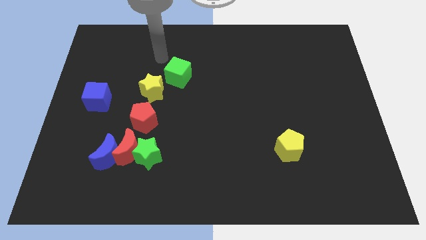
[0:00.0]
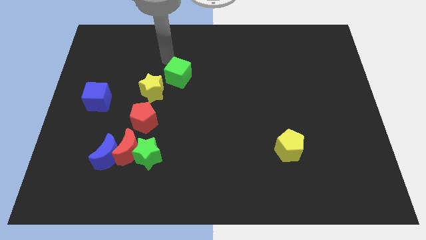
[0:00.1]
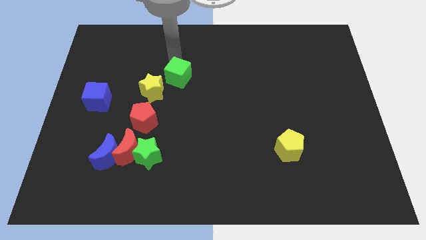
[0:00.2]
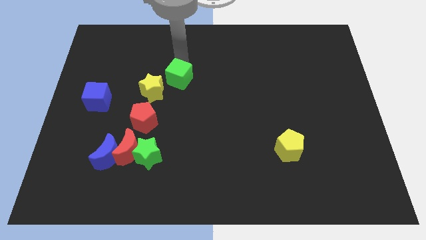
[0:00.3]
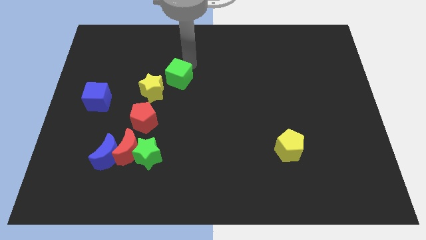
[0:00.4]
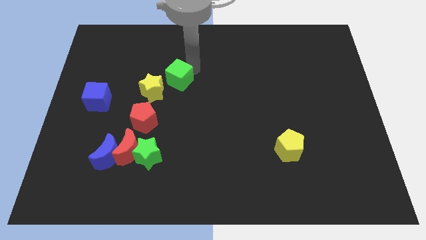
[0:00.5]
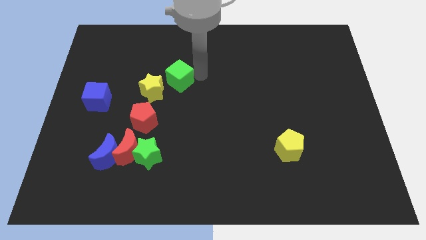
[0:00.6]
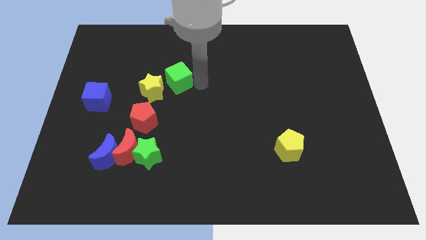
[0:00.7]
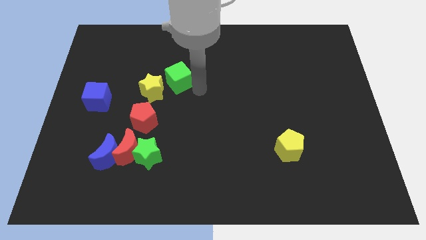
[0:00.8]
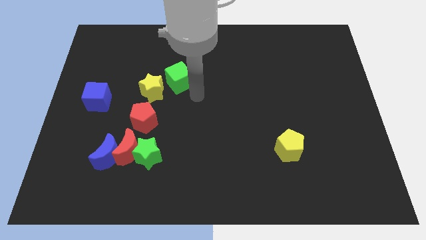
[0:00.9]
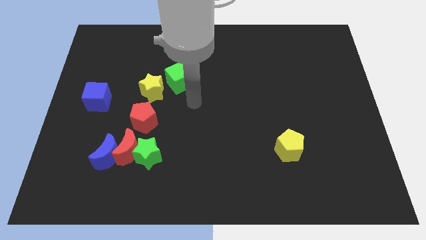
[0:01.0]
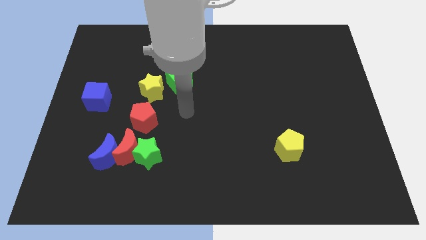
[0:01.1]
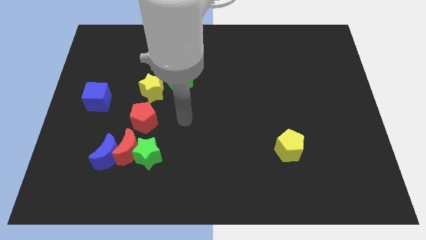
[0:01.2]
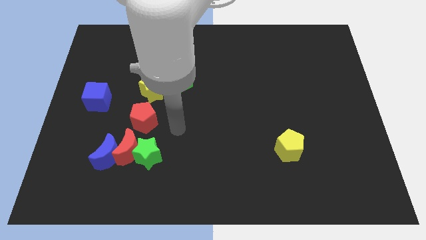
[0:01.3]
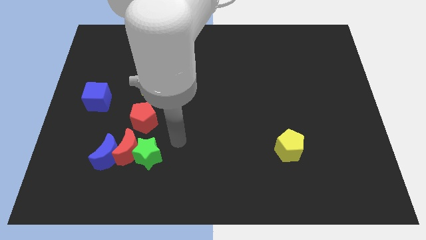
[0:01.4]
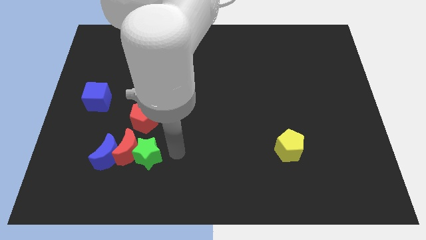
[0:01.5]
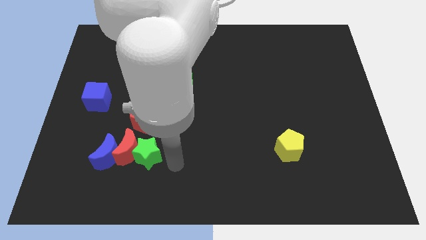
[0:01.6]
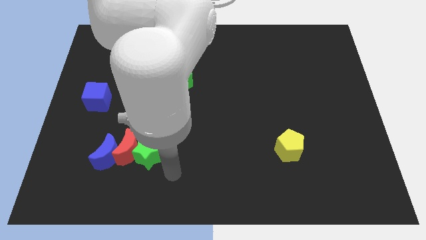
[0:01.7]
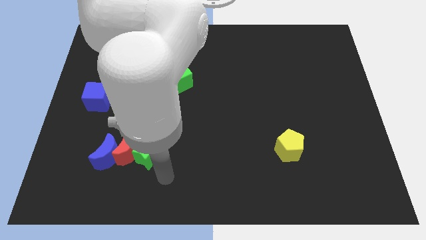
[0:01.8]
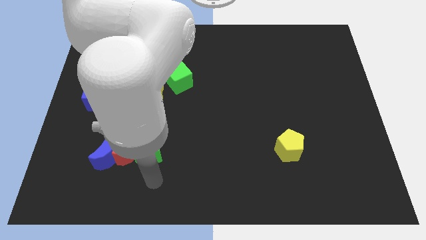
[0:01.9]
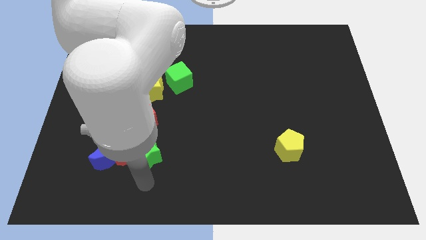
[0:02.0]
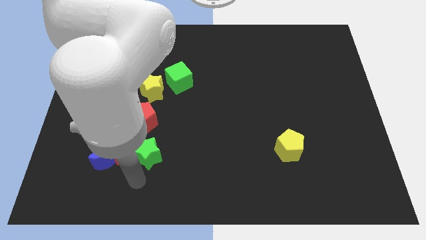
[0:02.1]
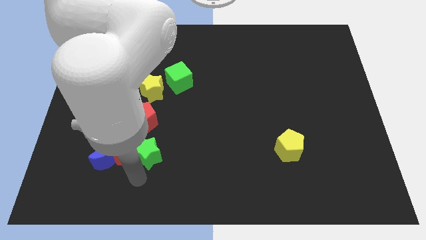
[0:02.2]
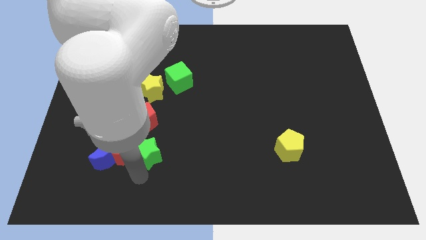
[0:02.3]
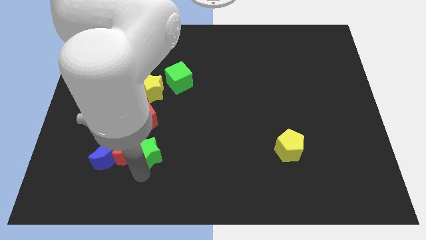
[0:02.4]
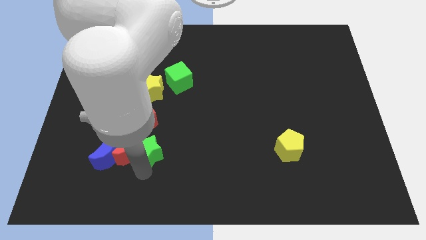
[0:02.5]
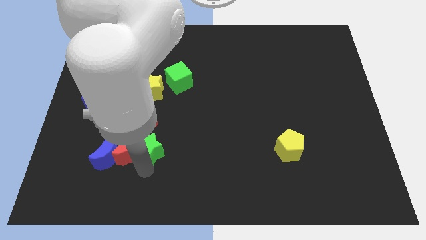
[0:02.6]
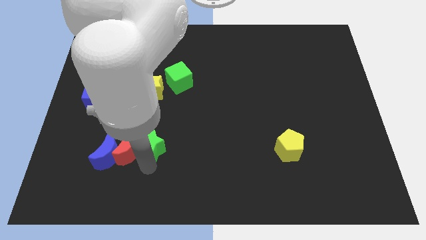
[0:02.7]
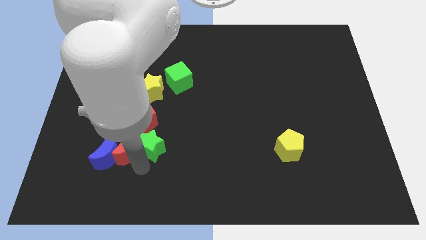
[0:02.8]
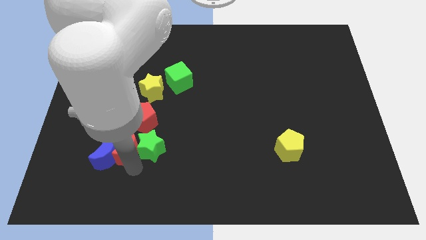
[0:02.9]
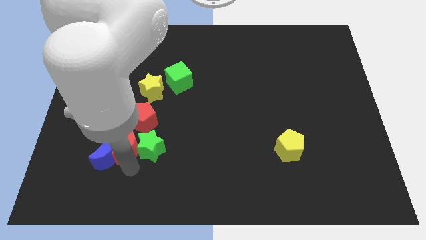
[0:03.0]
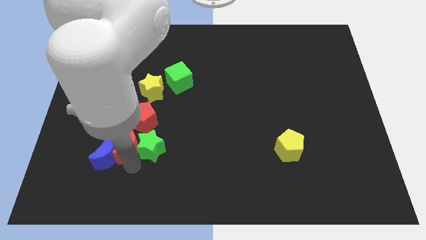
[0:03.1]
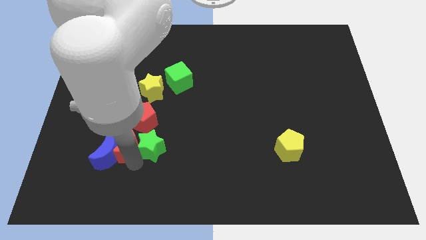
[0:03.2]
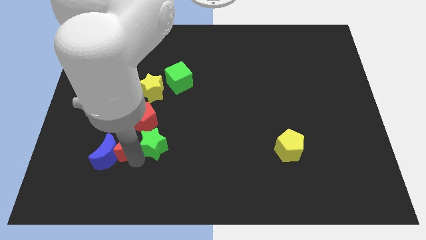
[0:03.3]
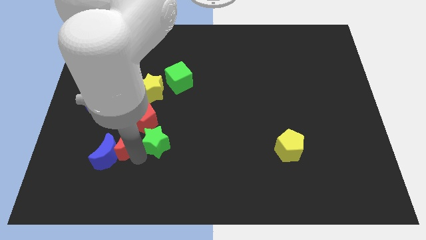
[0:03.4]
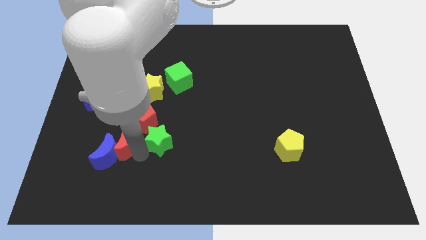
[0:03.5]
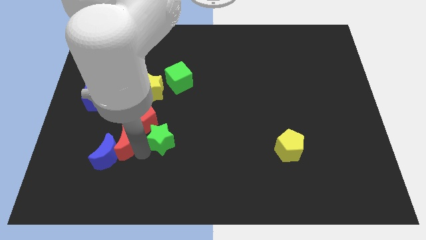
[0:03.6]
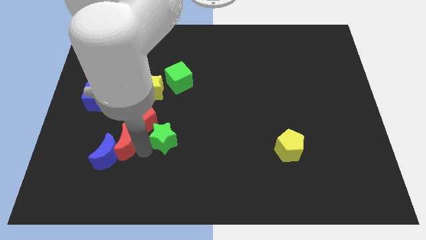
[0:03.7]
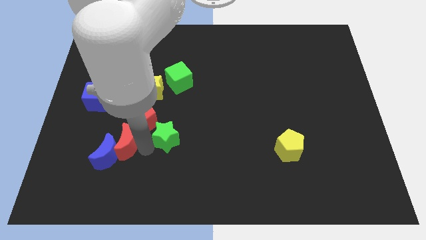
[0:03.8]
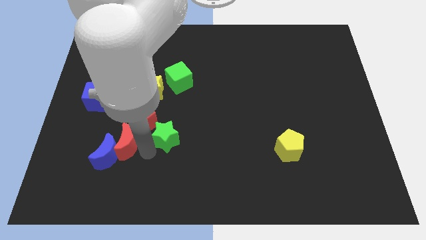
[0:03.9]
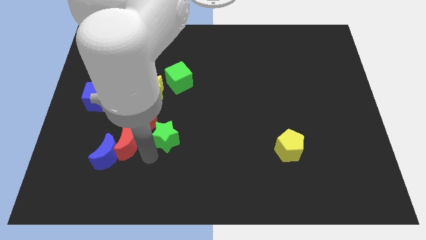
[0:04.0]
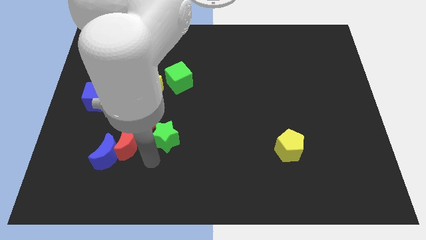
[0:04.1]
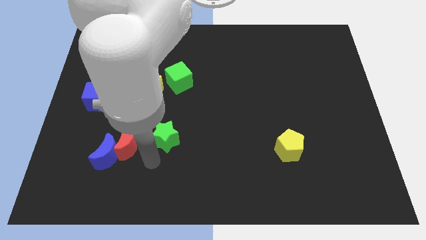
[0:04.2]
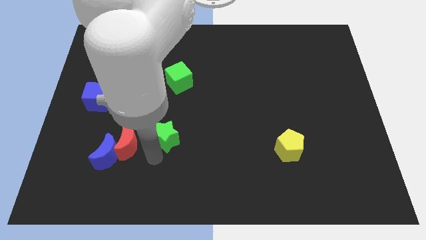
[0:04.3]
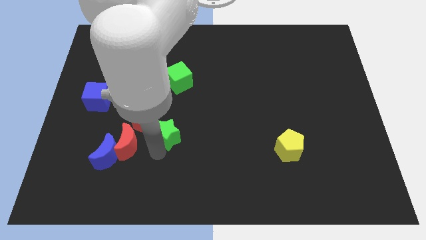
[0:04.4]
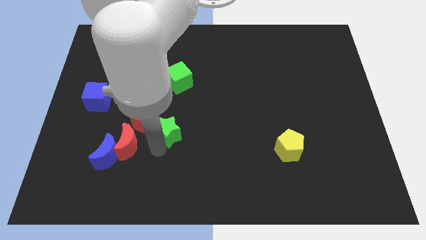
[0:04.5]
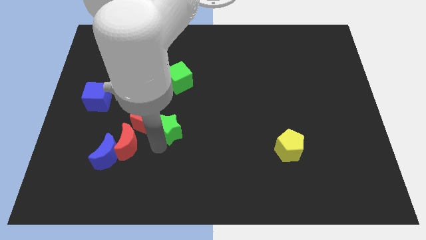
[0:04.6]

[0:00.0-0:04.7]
move the green star diagonally upwards and right a little bit

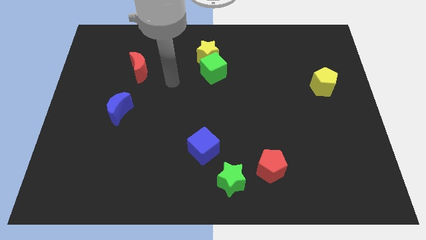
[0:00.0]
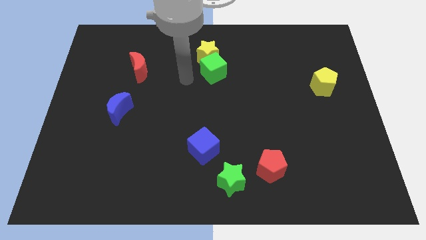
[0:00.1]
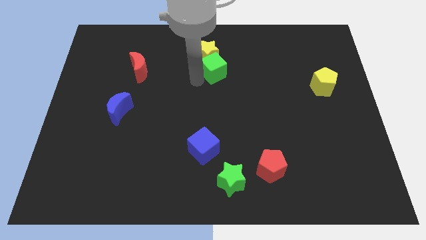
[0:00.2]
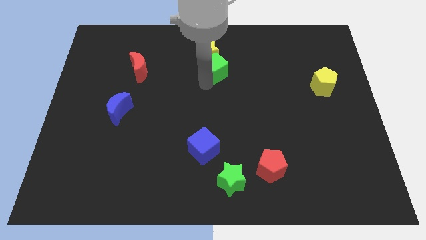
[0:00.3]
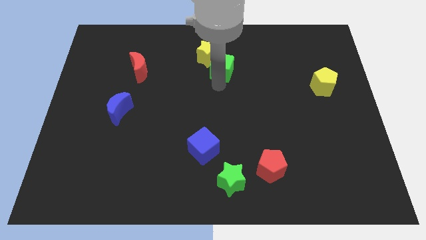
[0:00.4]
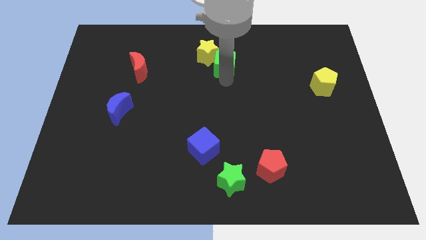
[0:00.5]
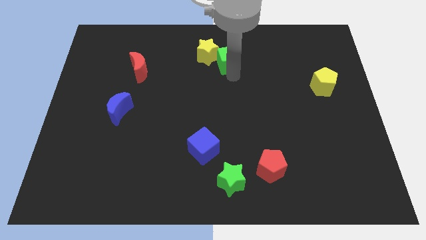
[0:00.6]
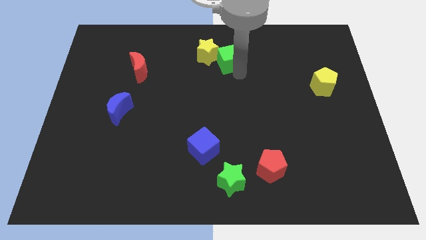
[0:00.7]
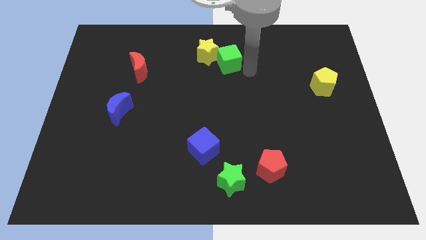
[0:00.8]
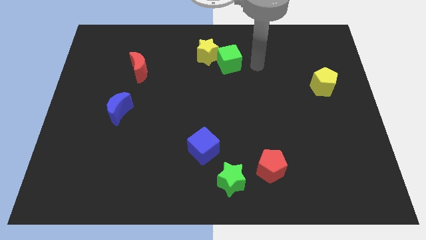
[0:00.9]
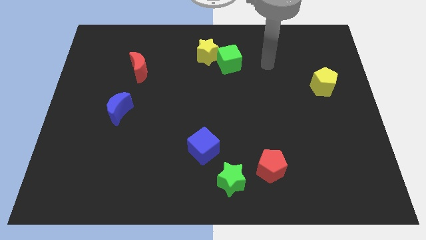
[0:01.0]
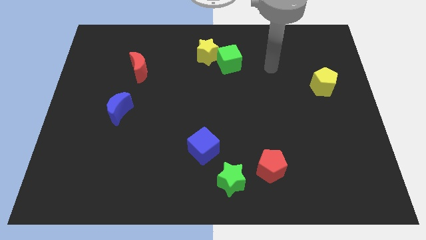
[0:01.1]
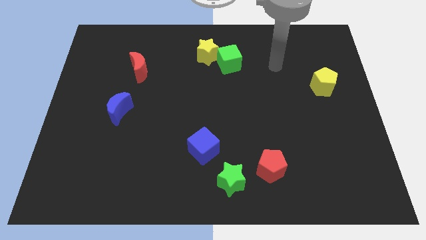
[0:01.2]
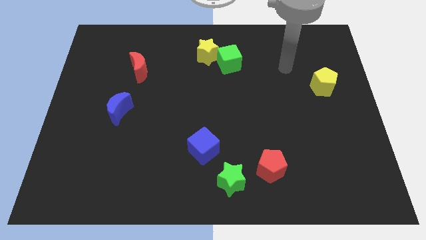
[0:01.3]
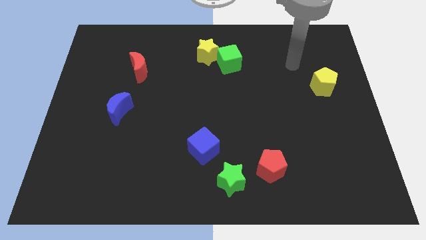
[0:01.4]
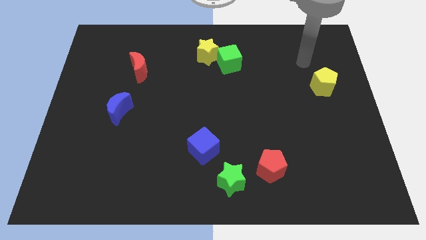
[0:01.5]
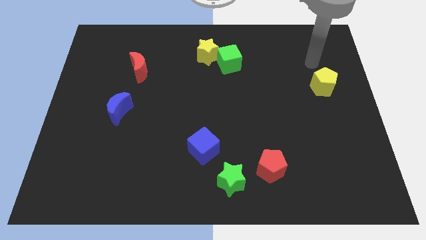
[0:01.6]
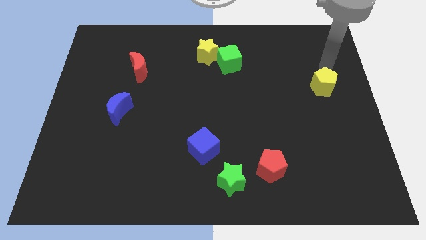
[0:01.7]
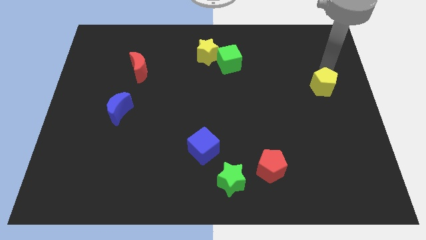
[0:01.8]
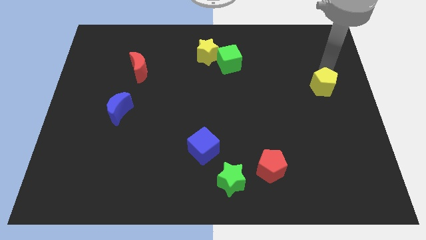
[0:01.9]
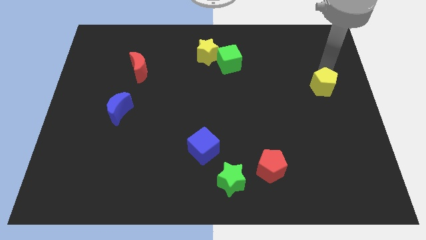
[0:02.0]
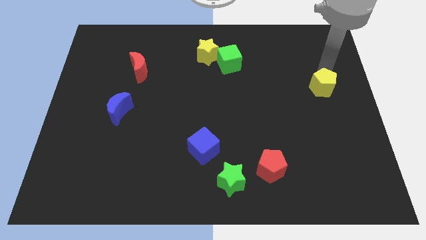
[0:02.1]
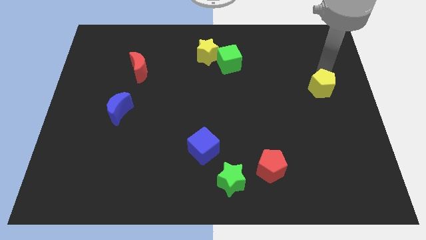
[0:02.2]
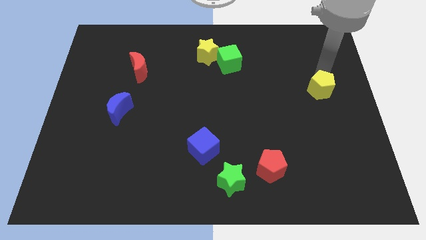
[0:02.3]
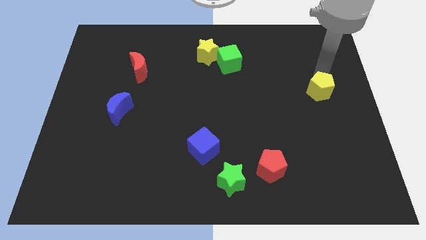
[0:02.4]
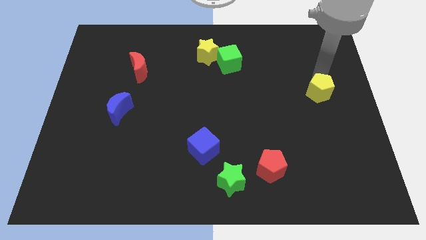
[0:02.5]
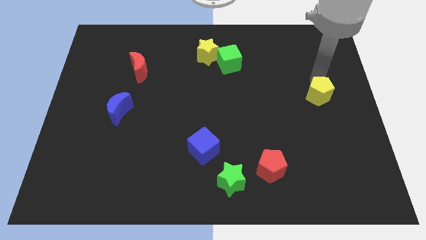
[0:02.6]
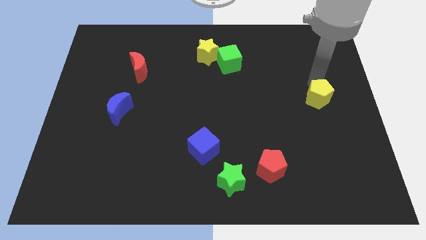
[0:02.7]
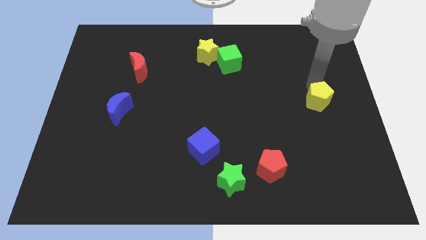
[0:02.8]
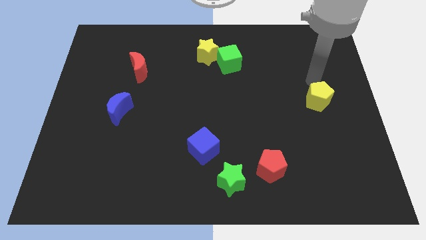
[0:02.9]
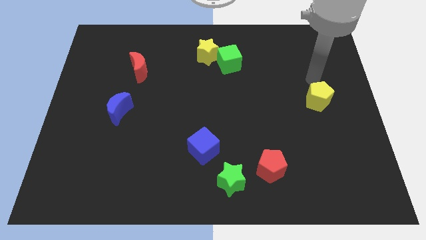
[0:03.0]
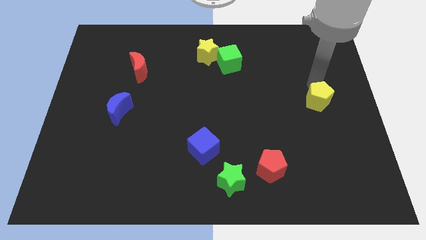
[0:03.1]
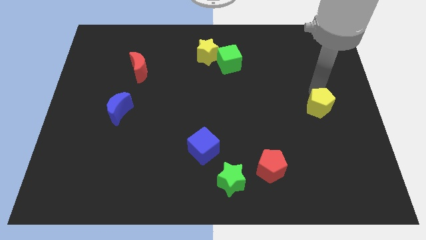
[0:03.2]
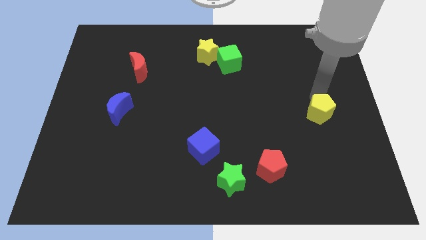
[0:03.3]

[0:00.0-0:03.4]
move the yellow pentagon downwards a little

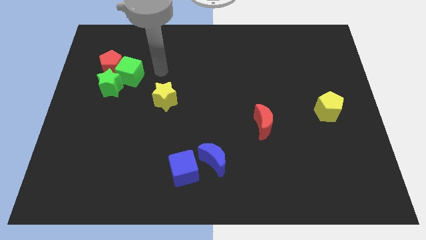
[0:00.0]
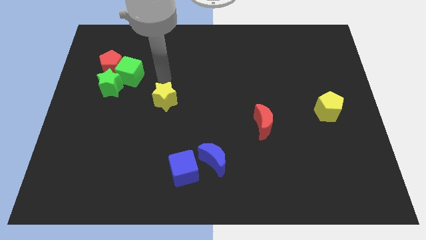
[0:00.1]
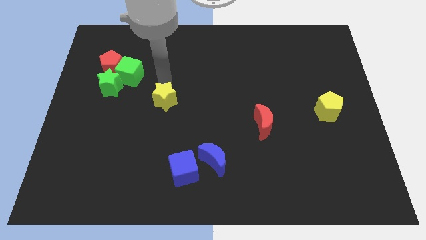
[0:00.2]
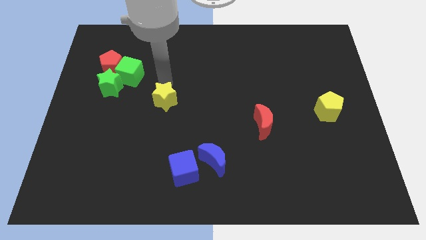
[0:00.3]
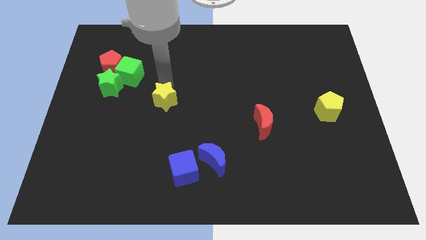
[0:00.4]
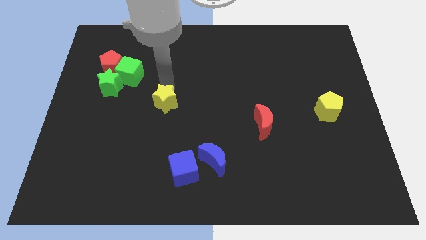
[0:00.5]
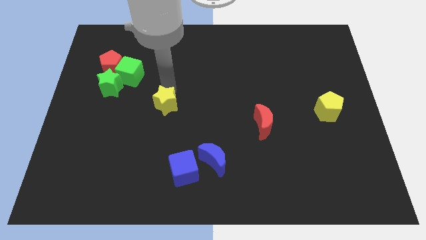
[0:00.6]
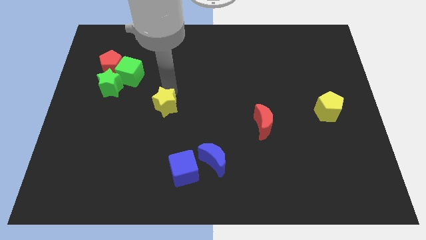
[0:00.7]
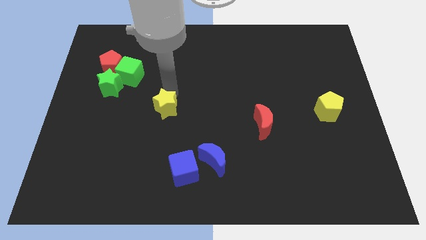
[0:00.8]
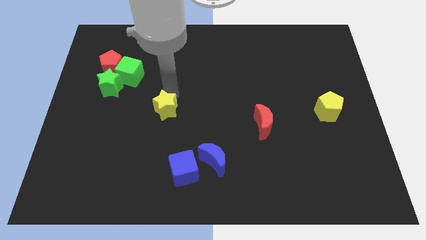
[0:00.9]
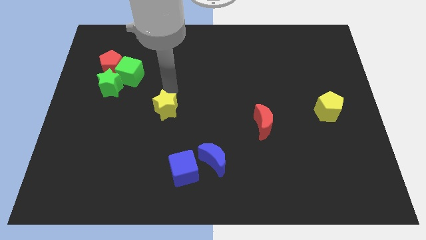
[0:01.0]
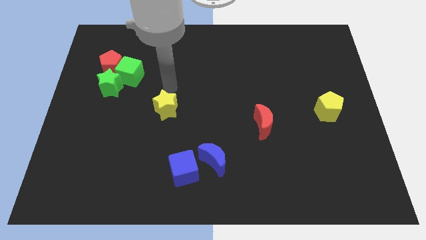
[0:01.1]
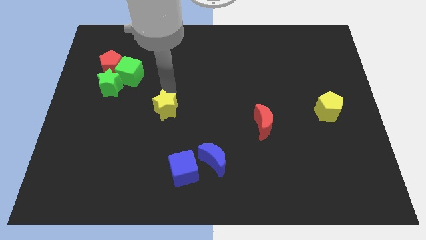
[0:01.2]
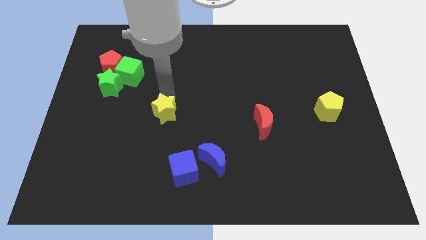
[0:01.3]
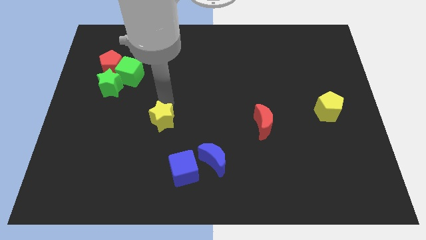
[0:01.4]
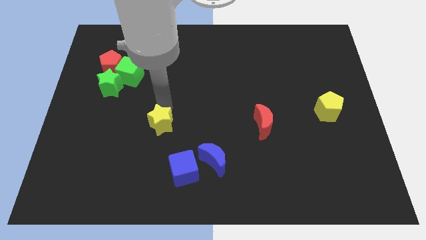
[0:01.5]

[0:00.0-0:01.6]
move the yellow star downwards a little
